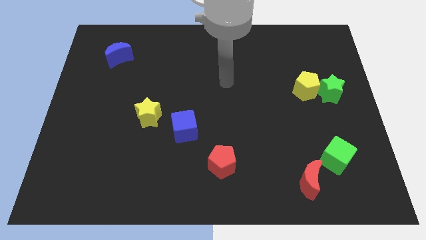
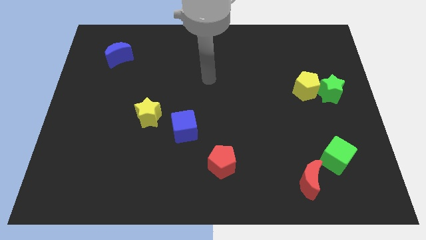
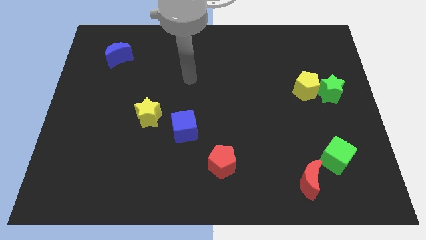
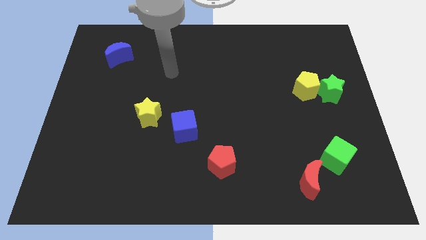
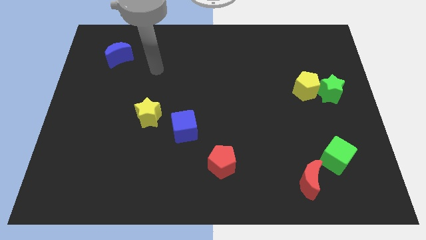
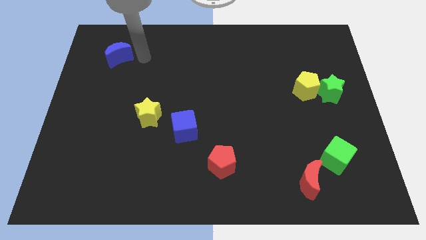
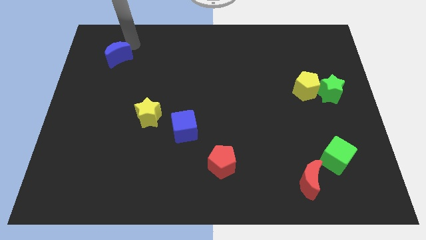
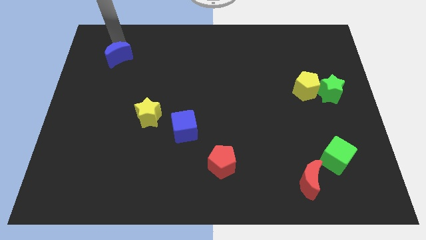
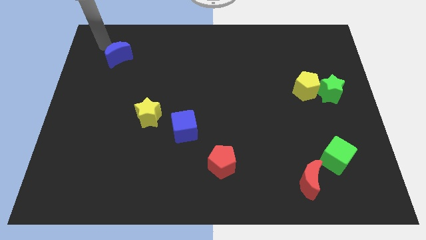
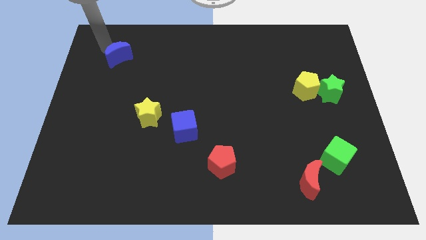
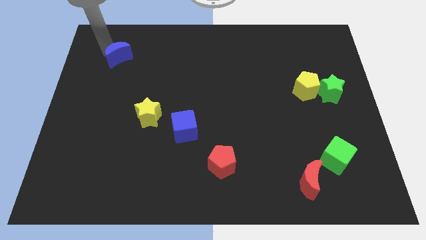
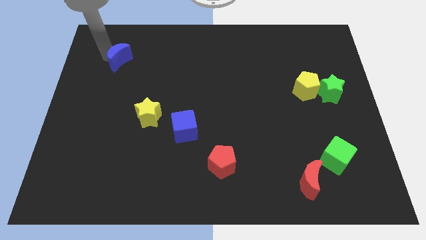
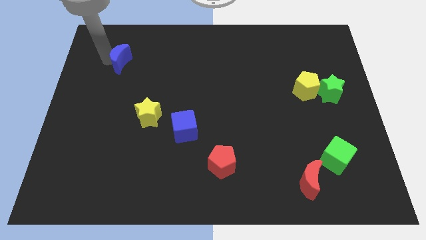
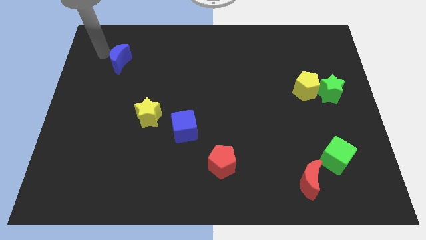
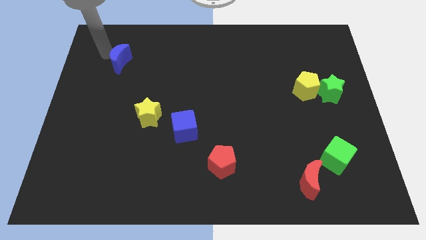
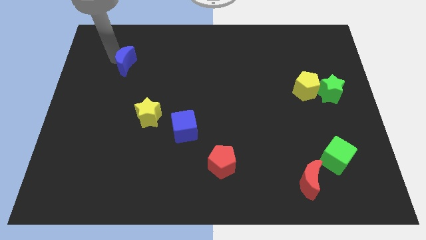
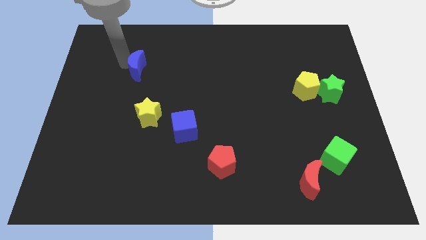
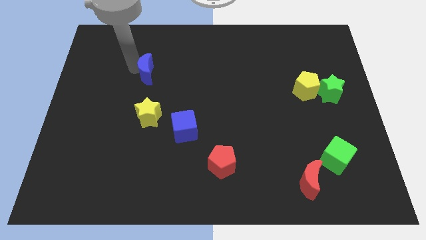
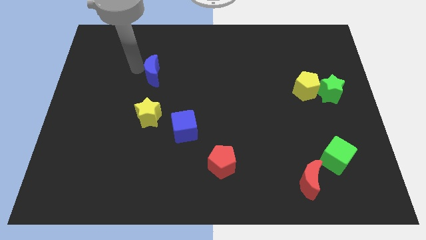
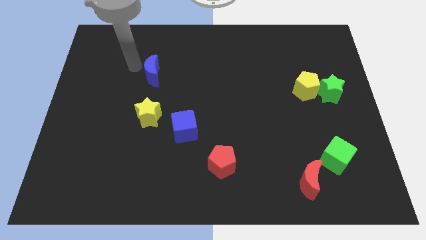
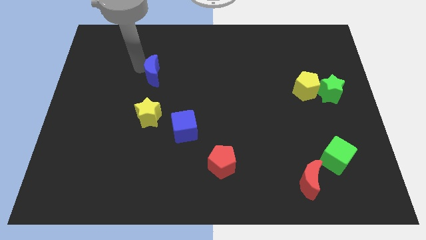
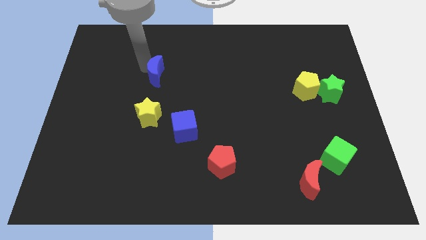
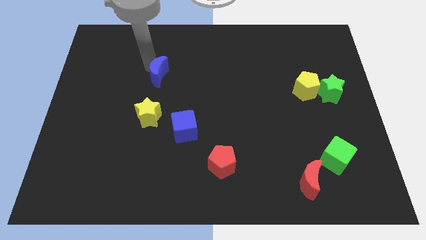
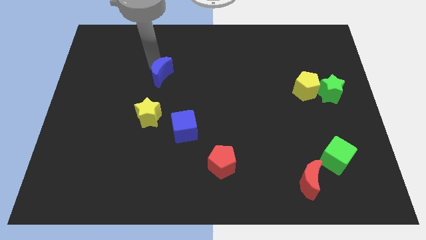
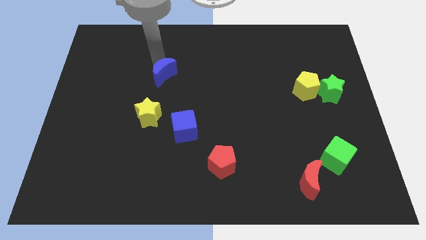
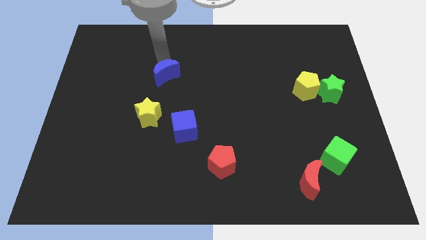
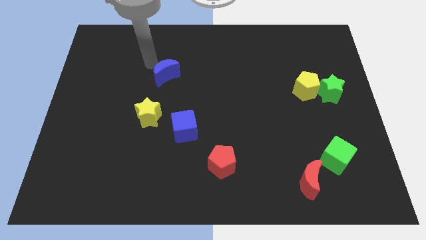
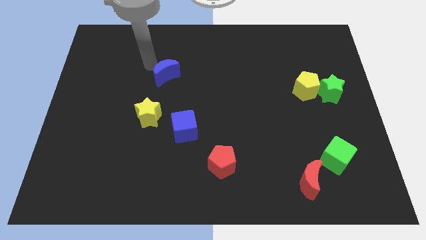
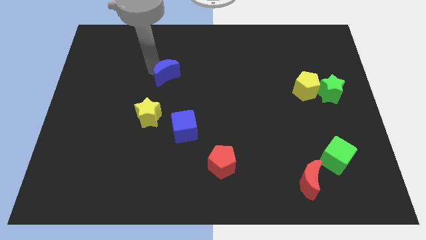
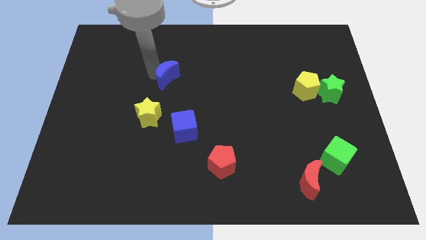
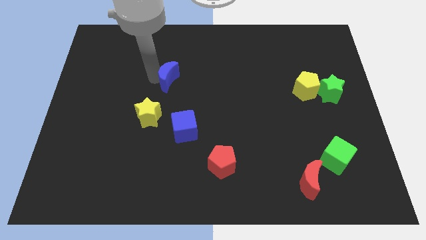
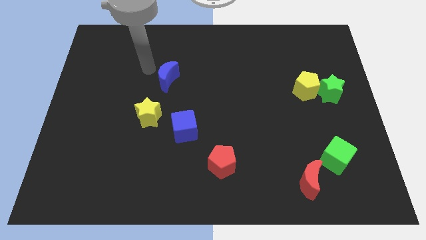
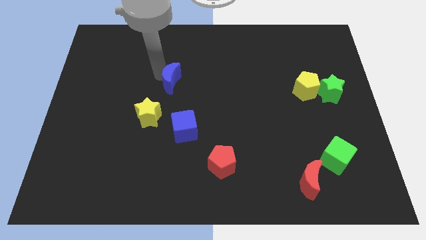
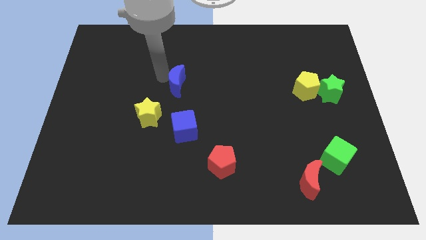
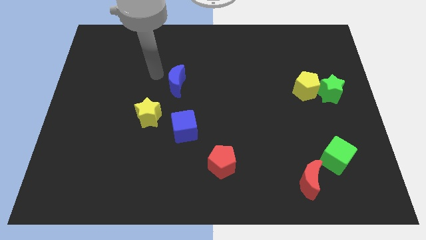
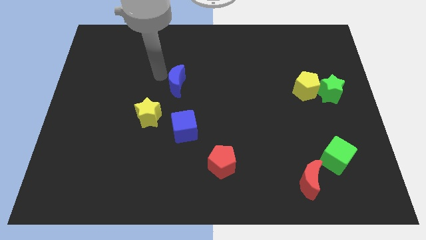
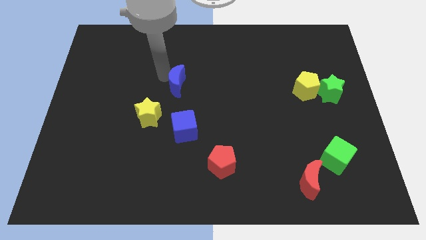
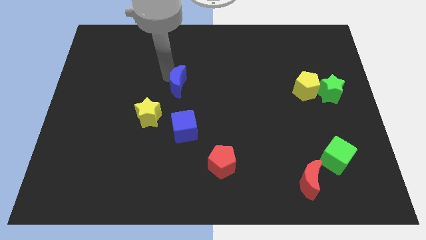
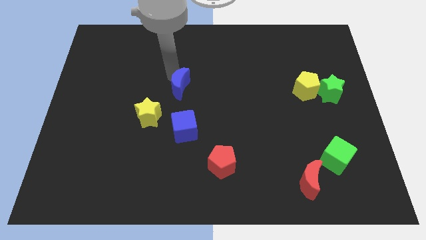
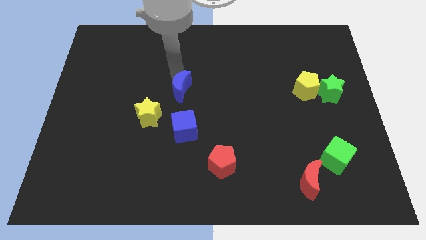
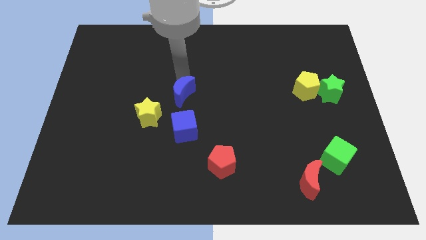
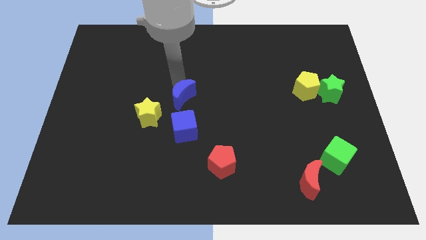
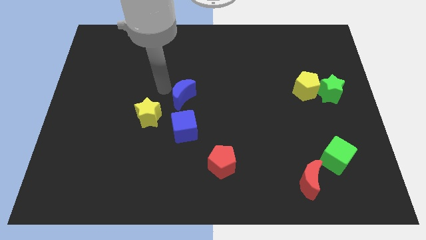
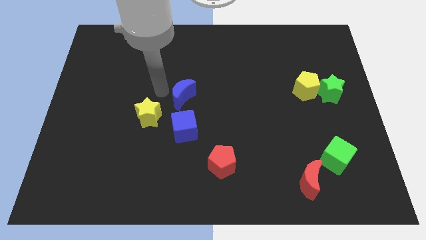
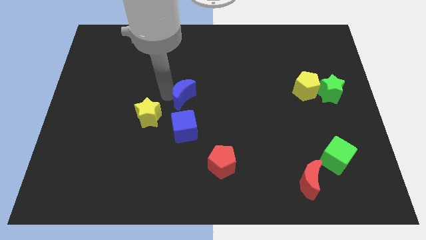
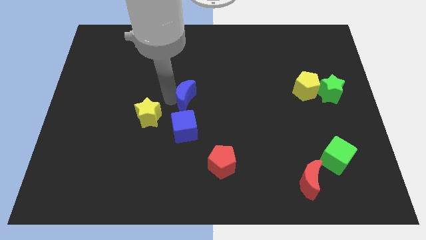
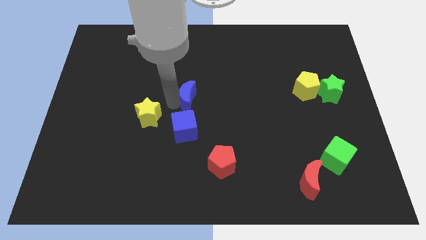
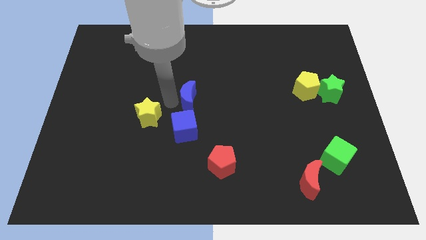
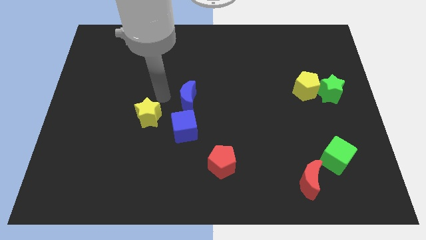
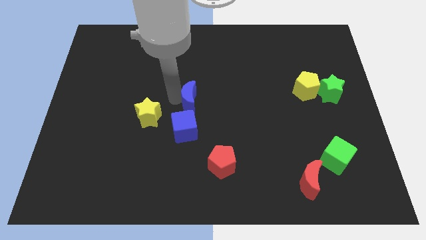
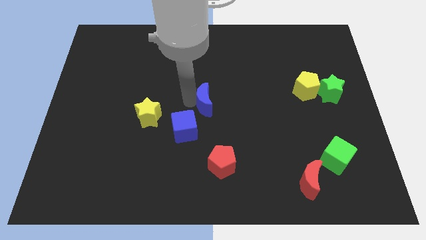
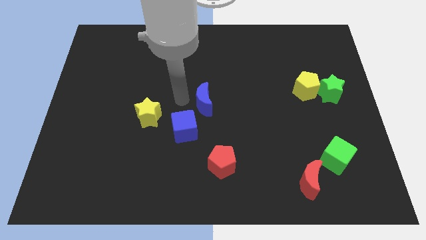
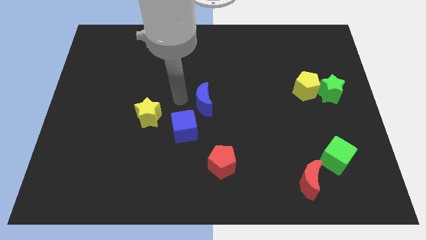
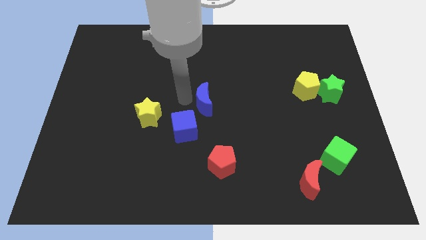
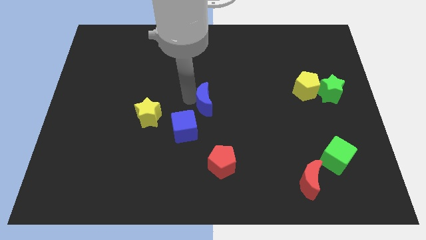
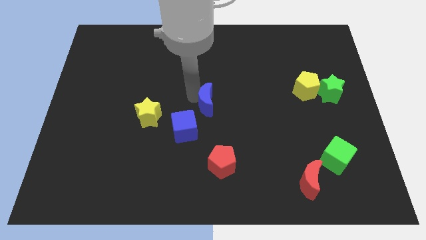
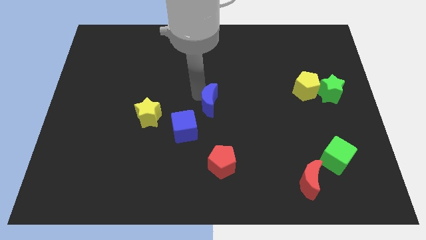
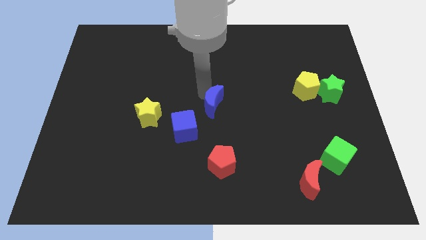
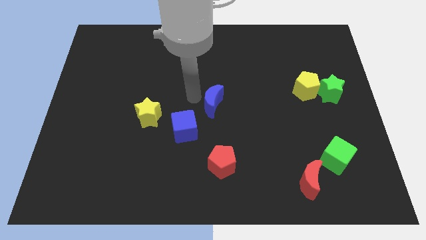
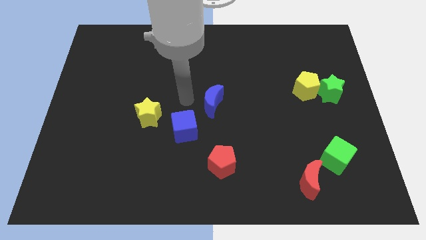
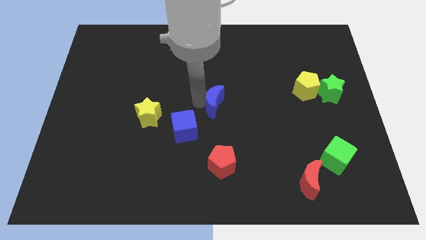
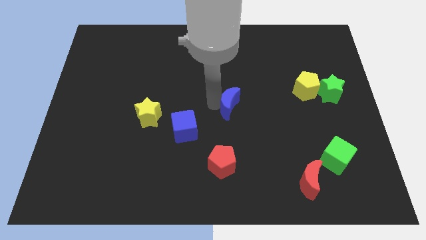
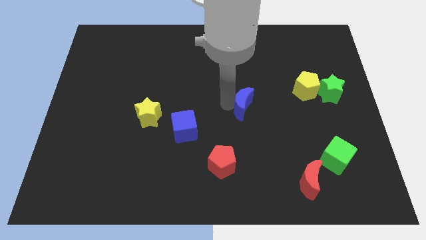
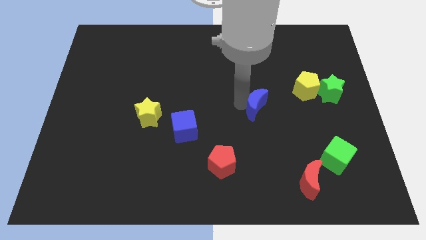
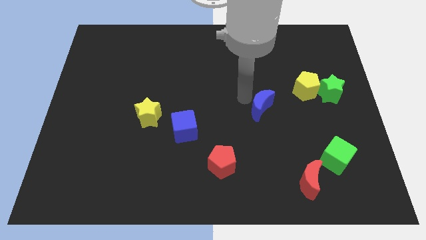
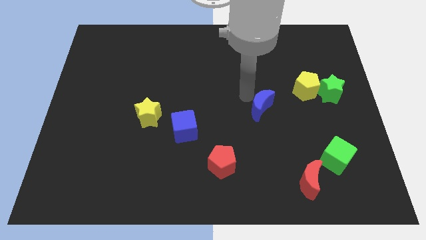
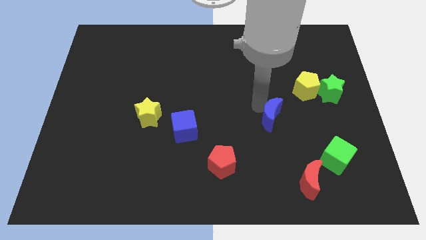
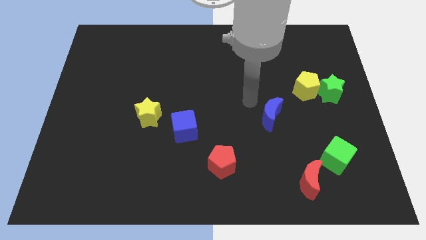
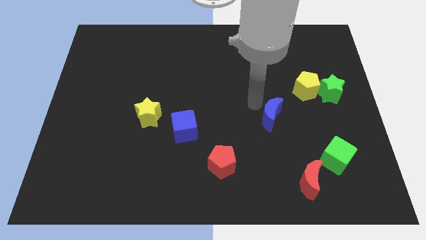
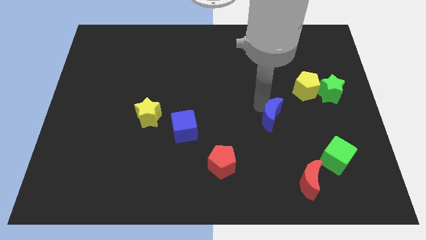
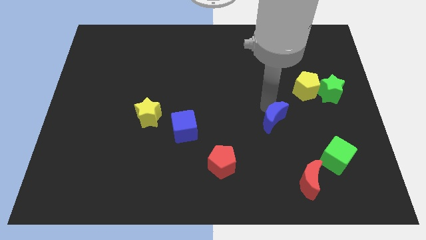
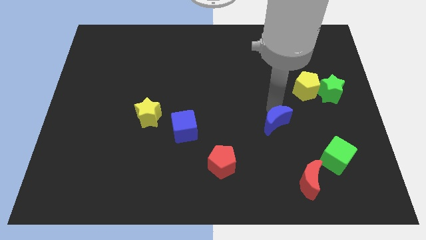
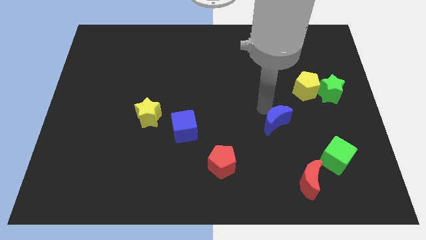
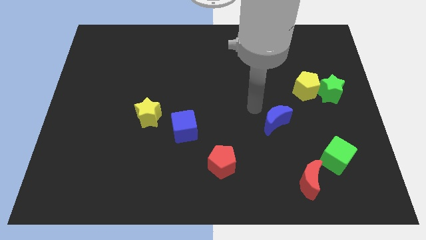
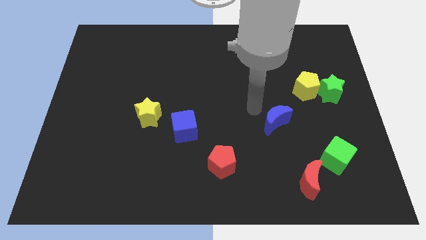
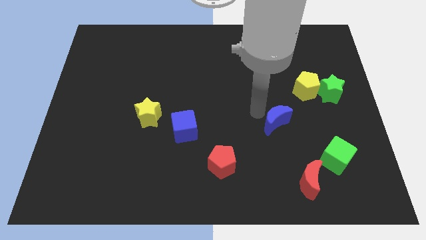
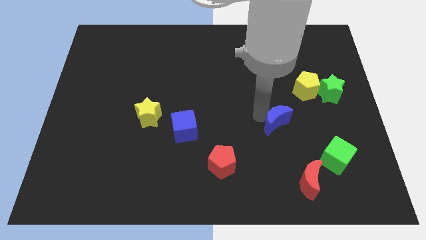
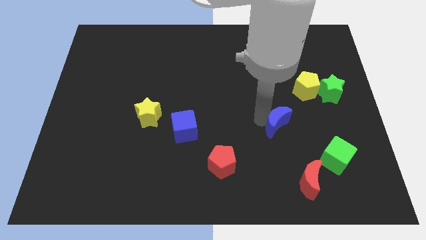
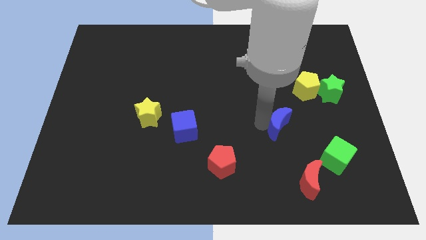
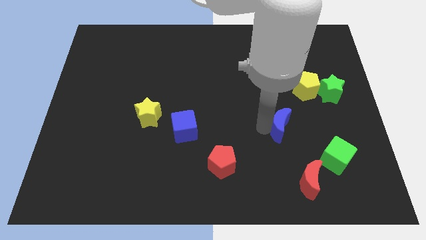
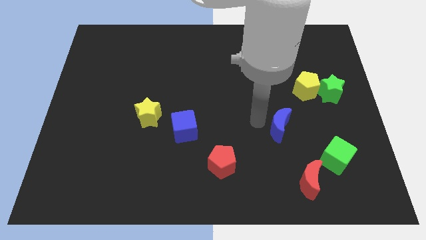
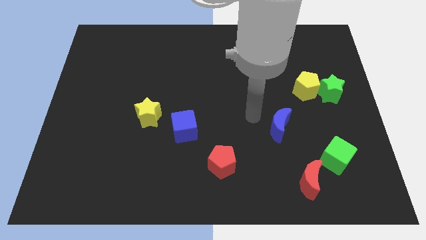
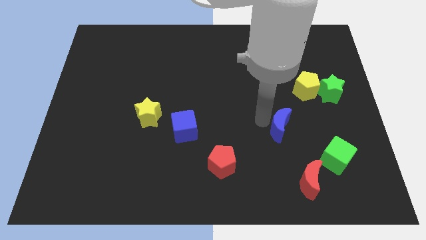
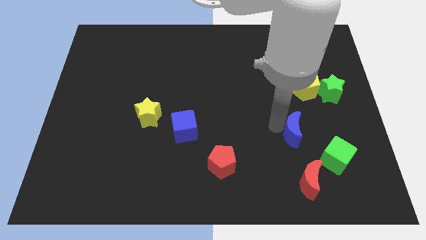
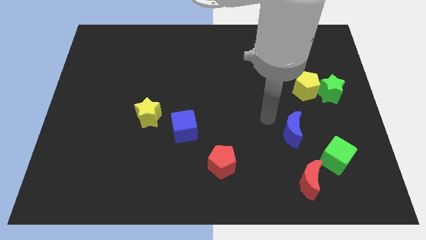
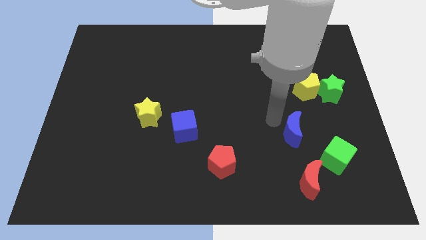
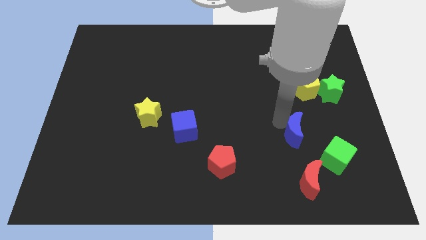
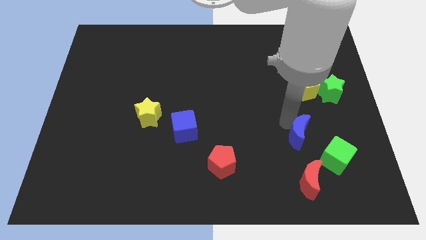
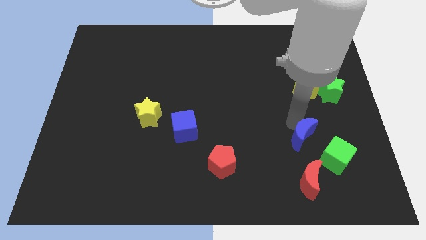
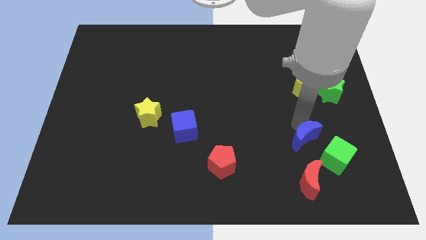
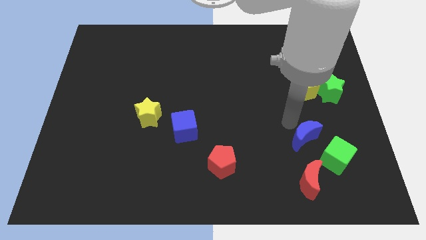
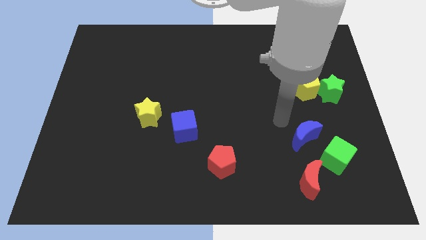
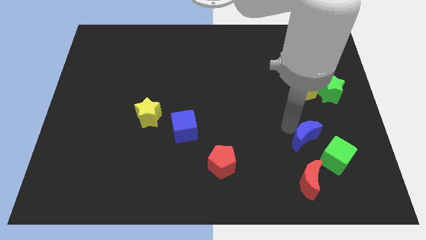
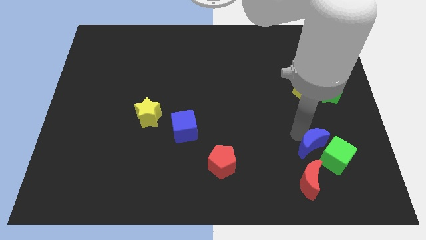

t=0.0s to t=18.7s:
put the blue moon towards the green cube
